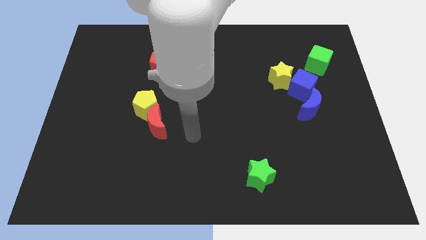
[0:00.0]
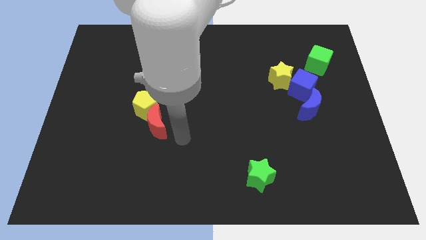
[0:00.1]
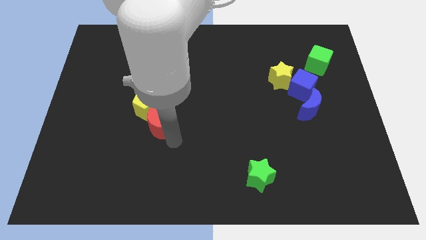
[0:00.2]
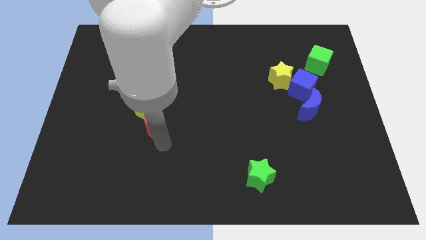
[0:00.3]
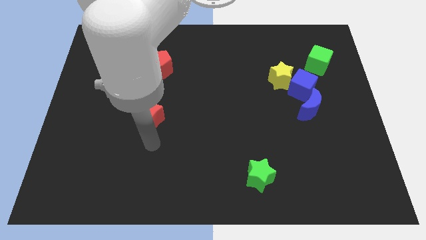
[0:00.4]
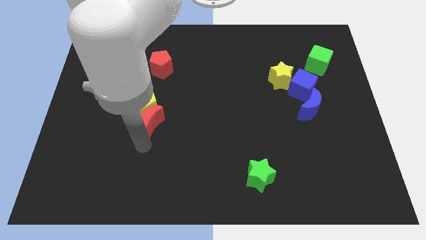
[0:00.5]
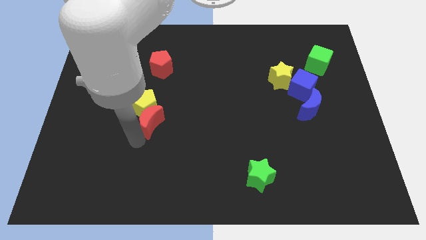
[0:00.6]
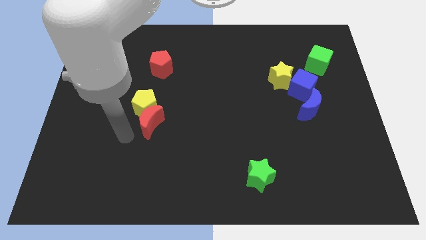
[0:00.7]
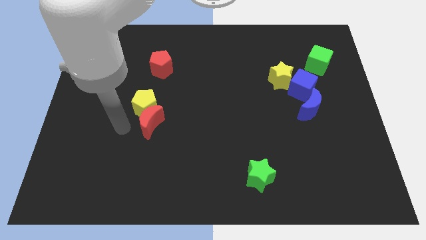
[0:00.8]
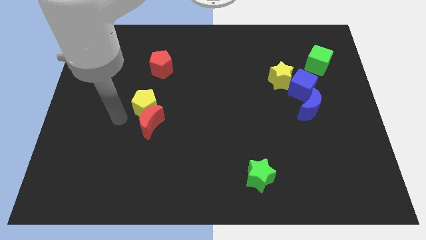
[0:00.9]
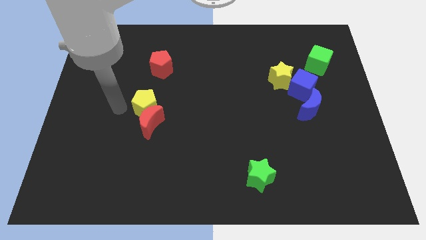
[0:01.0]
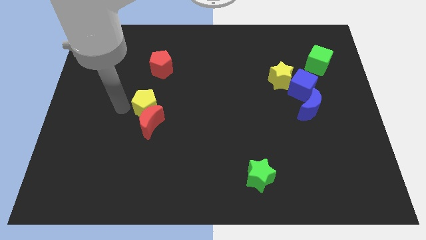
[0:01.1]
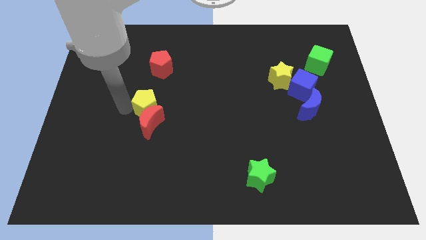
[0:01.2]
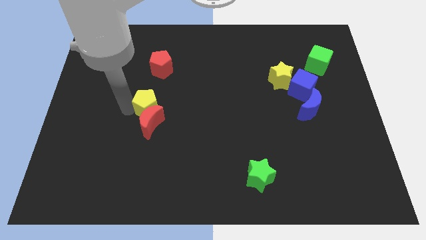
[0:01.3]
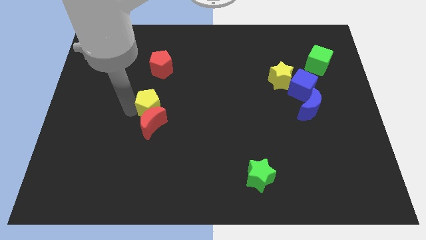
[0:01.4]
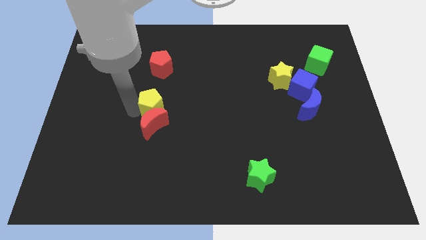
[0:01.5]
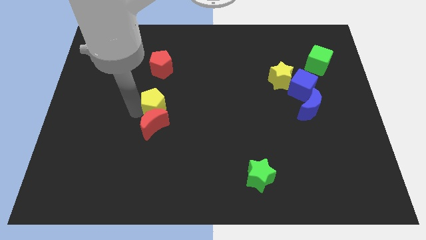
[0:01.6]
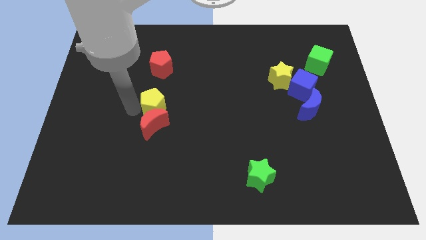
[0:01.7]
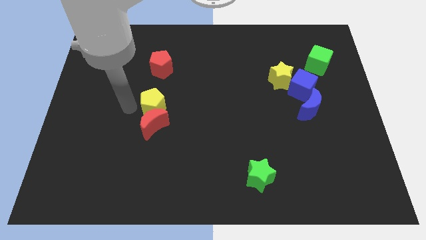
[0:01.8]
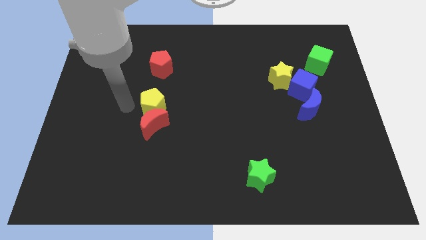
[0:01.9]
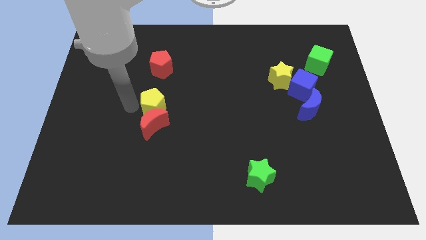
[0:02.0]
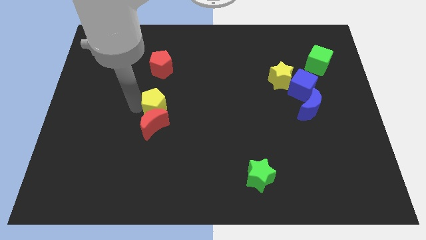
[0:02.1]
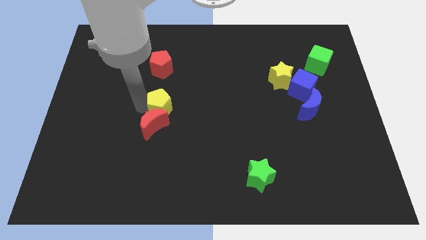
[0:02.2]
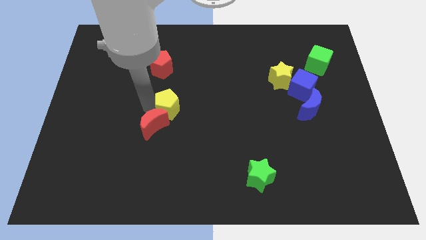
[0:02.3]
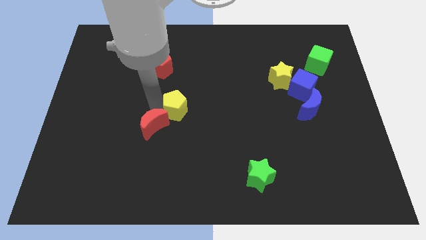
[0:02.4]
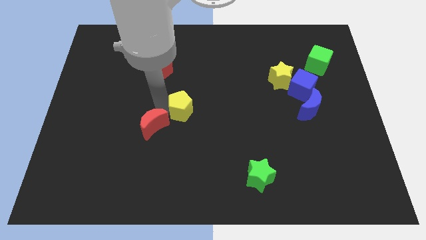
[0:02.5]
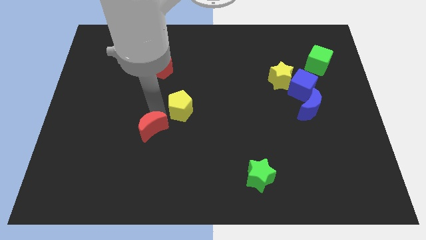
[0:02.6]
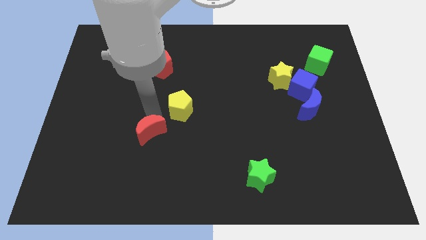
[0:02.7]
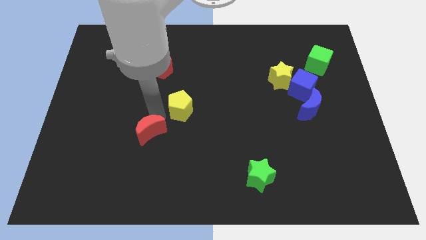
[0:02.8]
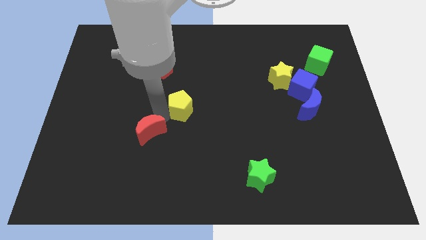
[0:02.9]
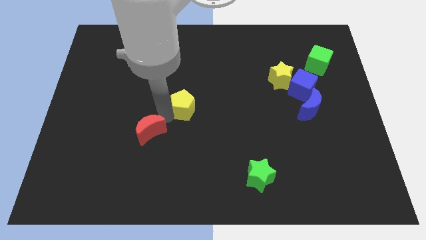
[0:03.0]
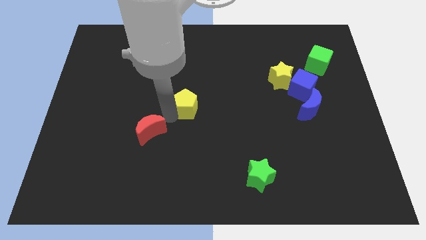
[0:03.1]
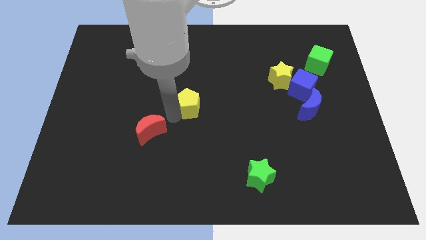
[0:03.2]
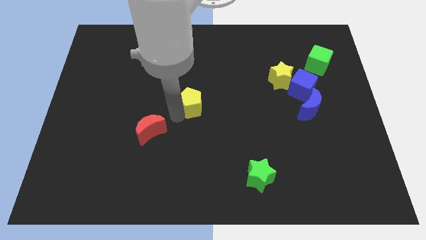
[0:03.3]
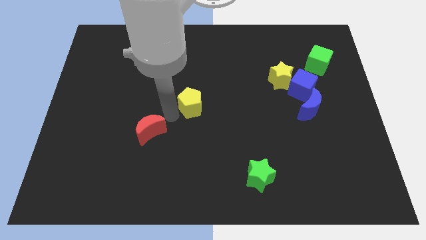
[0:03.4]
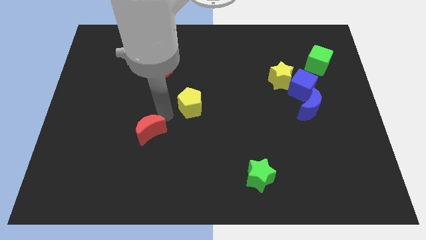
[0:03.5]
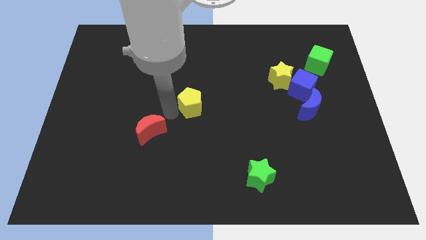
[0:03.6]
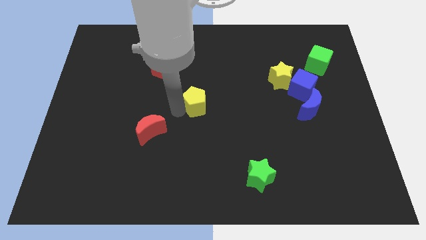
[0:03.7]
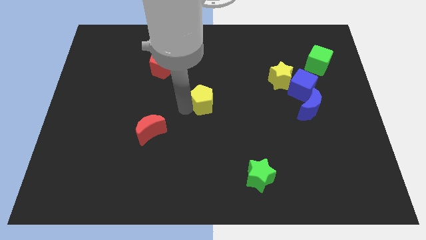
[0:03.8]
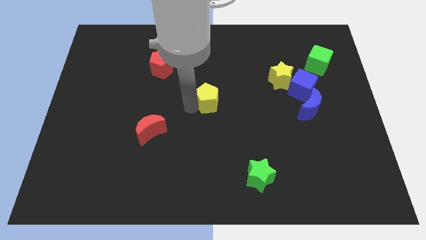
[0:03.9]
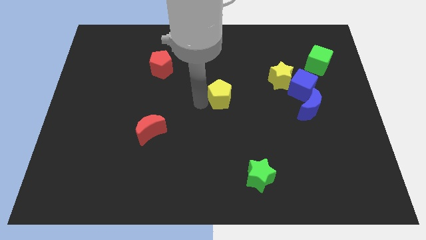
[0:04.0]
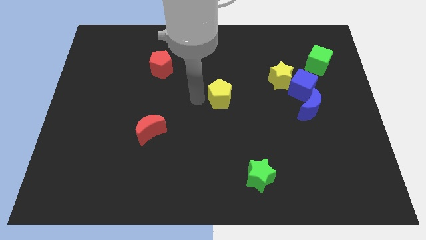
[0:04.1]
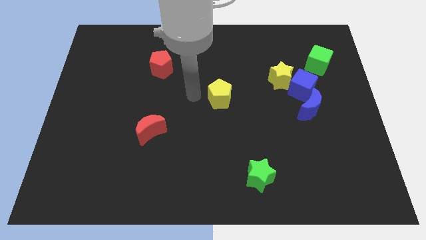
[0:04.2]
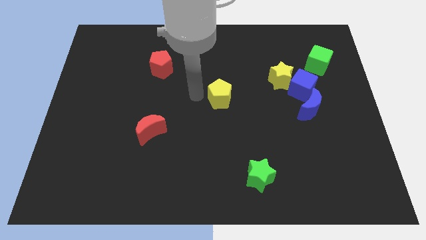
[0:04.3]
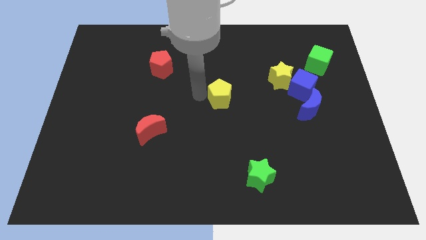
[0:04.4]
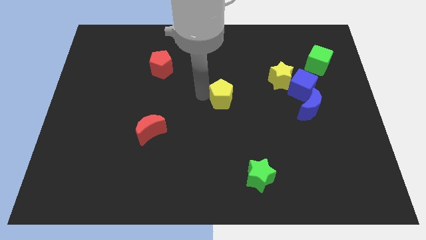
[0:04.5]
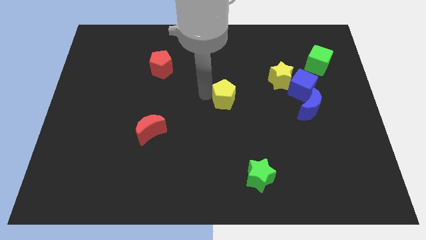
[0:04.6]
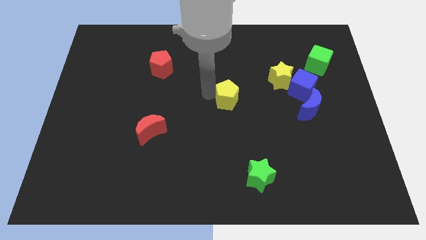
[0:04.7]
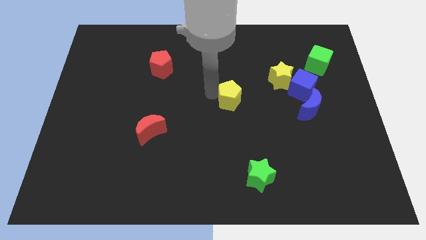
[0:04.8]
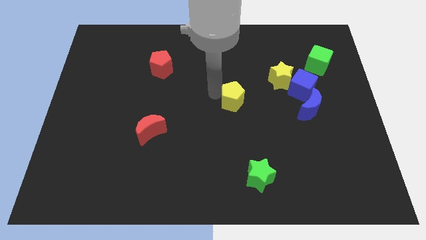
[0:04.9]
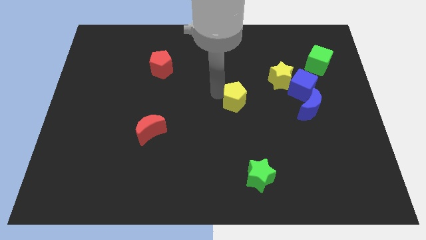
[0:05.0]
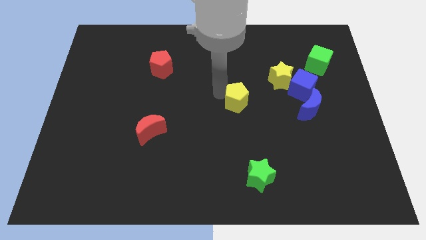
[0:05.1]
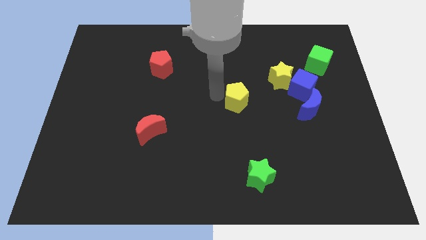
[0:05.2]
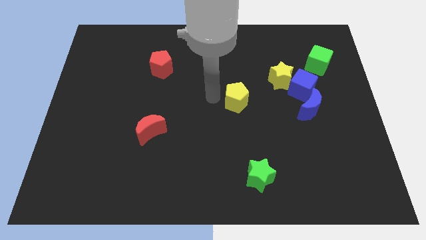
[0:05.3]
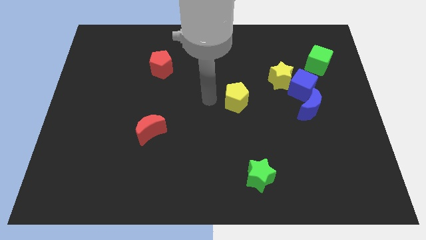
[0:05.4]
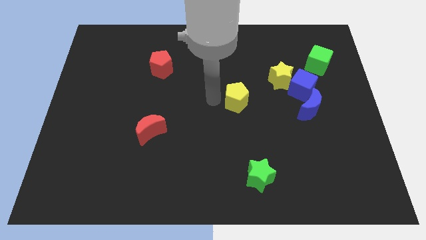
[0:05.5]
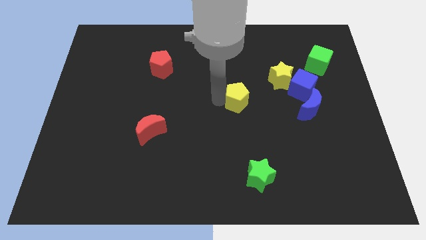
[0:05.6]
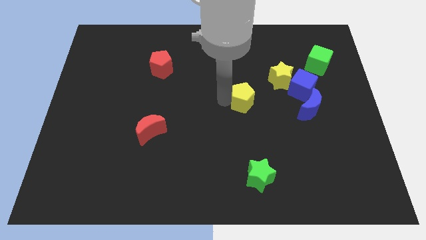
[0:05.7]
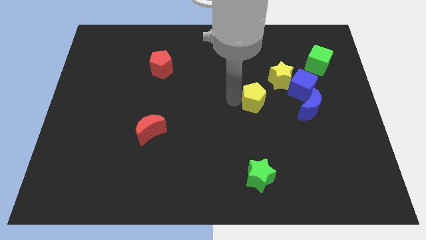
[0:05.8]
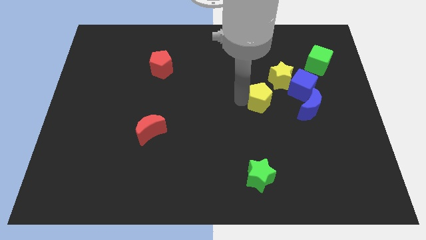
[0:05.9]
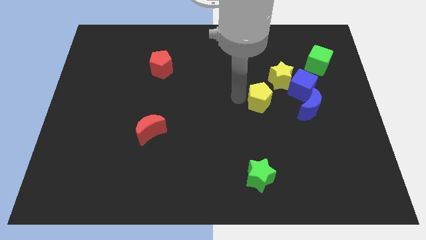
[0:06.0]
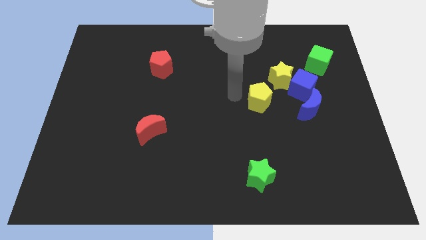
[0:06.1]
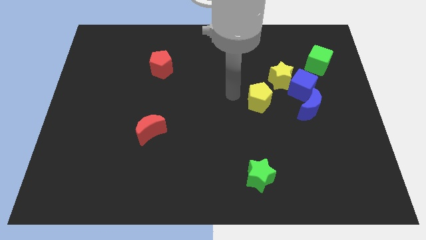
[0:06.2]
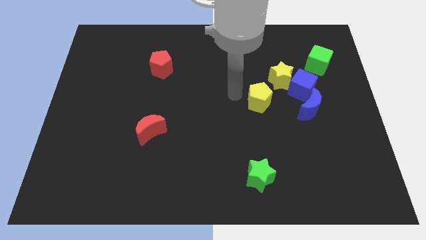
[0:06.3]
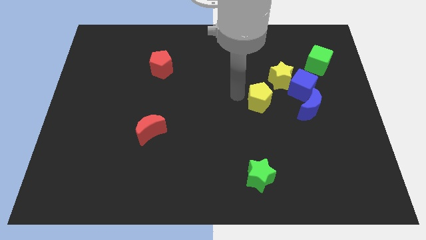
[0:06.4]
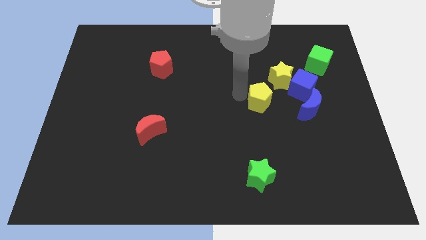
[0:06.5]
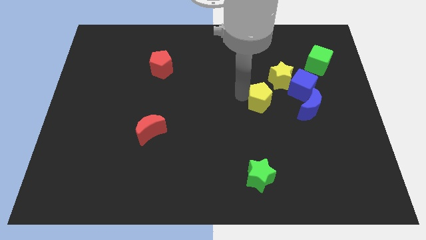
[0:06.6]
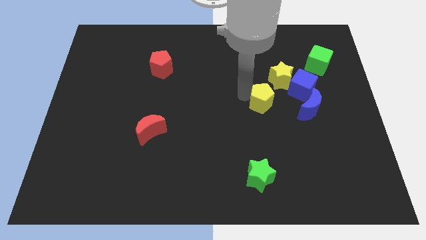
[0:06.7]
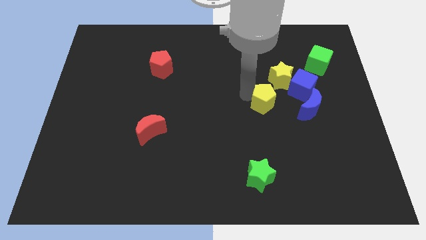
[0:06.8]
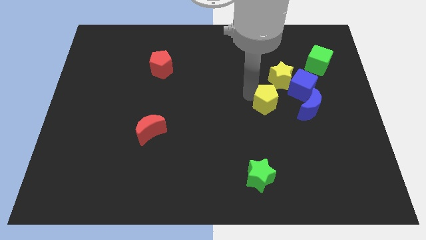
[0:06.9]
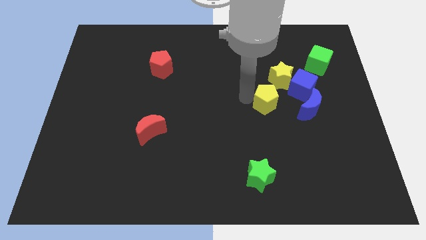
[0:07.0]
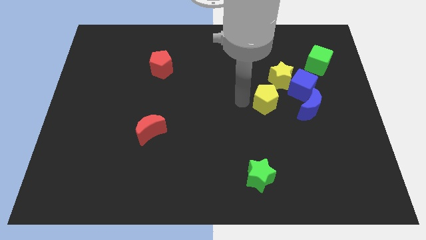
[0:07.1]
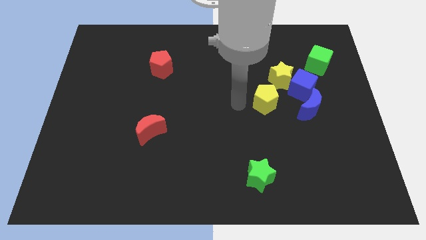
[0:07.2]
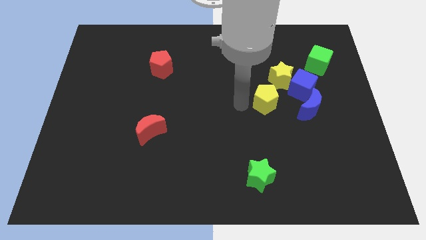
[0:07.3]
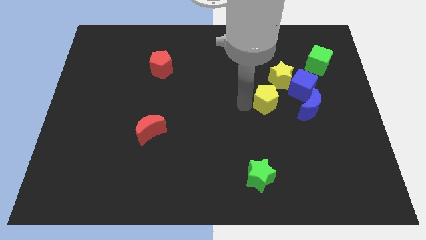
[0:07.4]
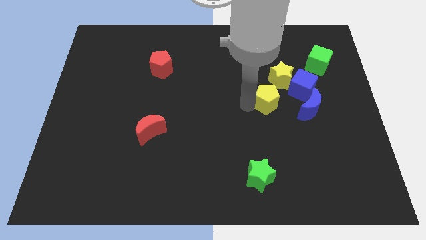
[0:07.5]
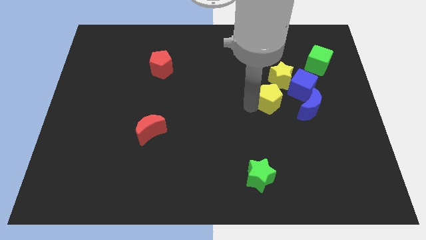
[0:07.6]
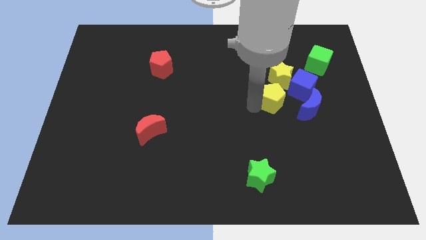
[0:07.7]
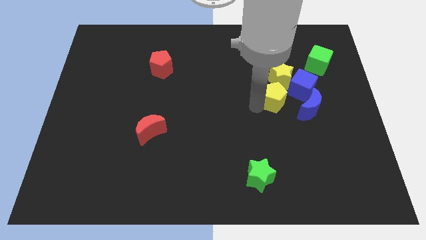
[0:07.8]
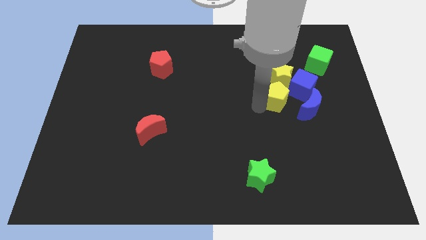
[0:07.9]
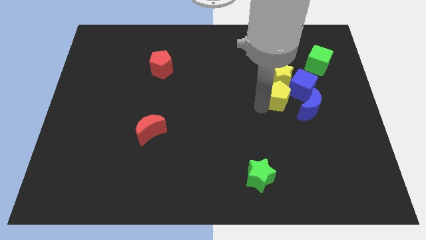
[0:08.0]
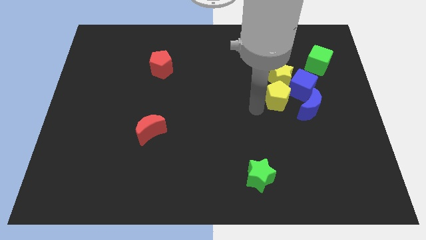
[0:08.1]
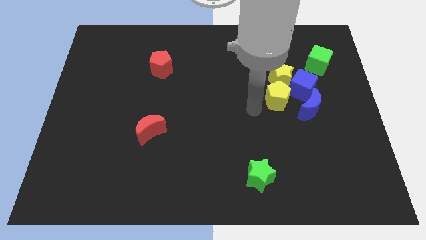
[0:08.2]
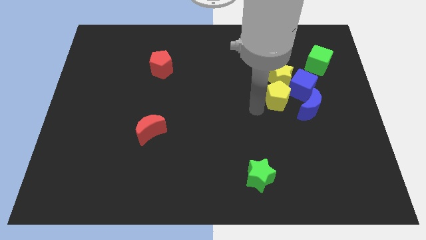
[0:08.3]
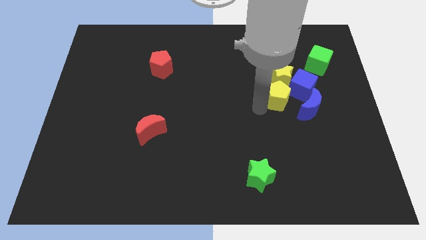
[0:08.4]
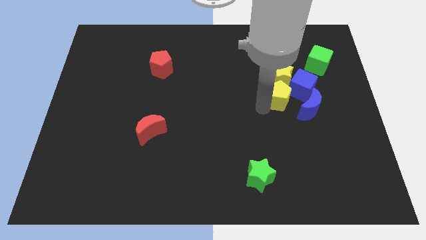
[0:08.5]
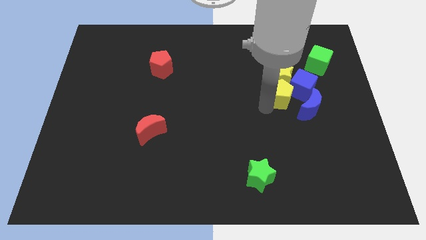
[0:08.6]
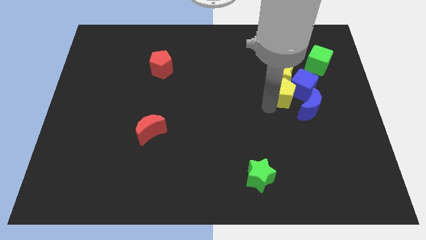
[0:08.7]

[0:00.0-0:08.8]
move the yellow pentagon towards the blue cube
